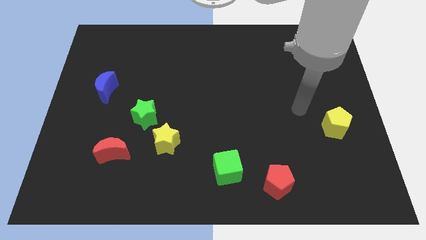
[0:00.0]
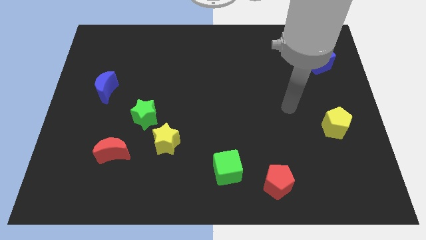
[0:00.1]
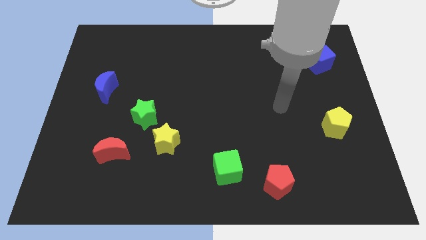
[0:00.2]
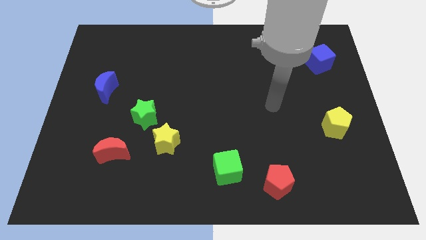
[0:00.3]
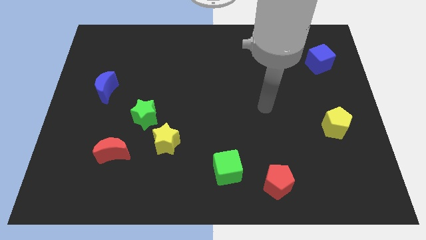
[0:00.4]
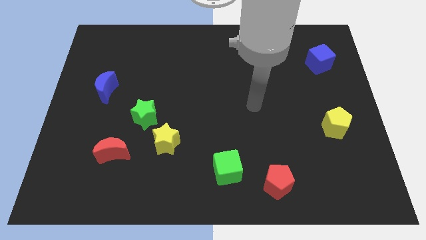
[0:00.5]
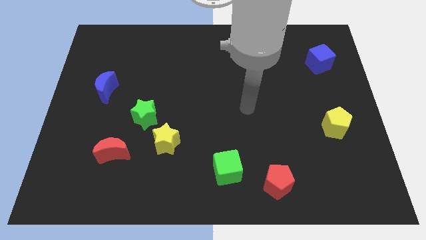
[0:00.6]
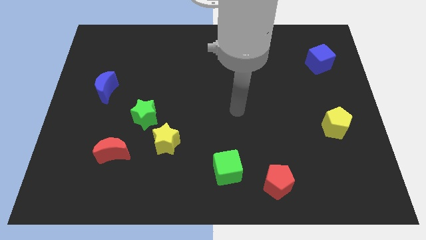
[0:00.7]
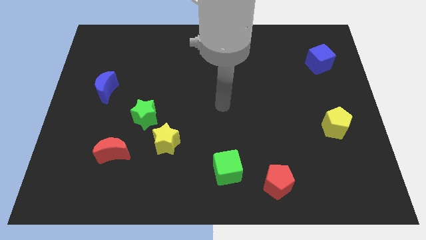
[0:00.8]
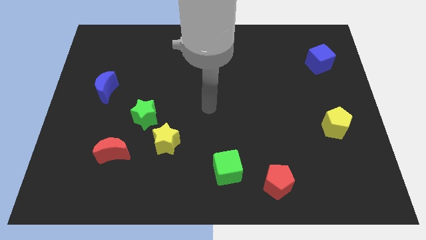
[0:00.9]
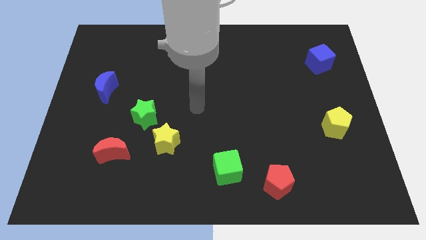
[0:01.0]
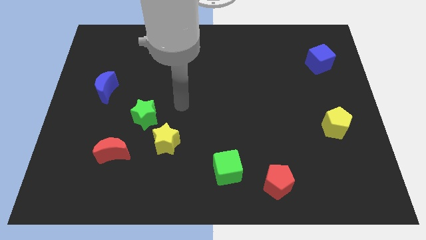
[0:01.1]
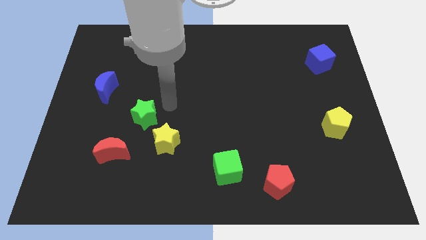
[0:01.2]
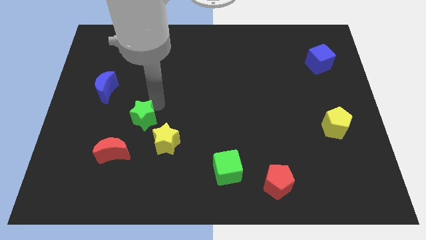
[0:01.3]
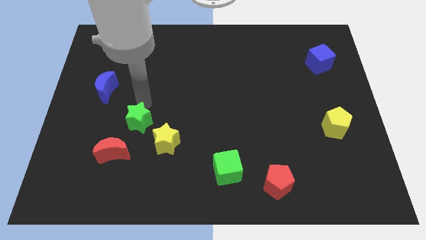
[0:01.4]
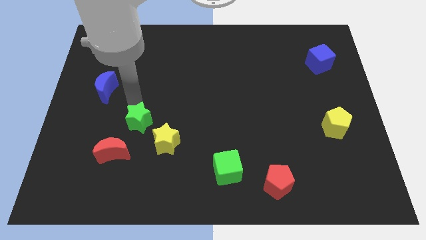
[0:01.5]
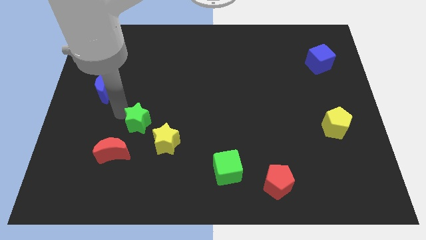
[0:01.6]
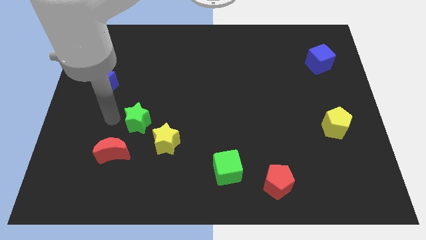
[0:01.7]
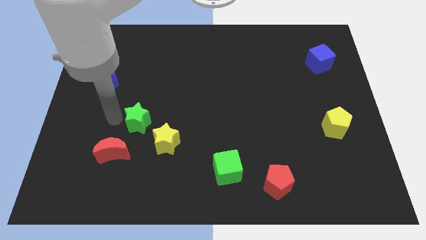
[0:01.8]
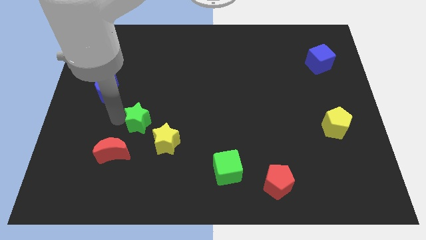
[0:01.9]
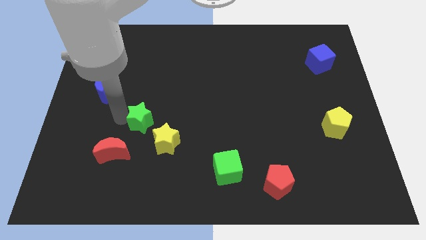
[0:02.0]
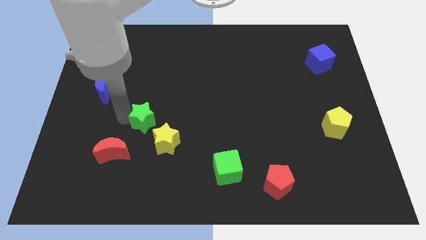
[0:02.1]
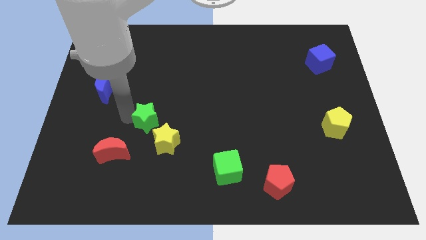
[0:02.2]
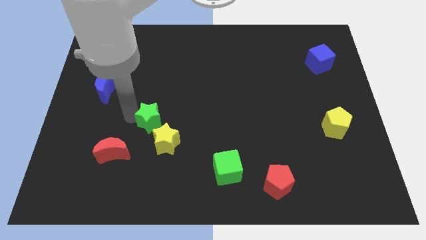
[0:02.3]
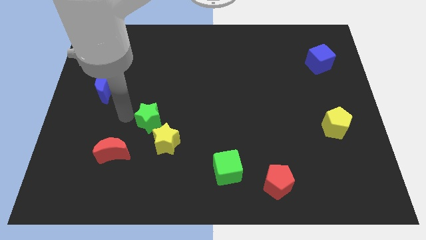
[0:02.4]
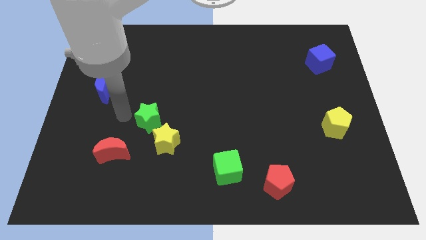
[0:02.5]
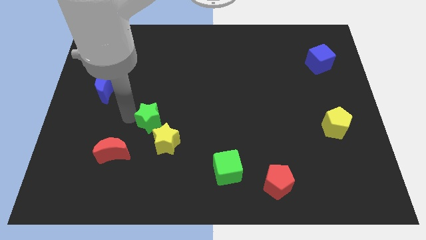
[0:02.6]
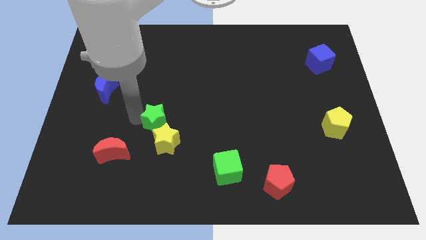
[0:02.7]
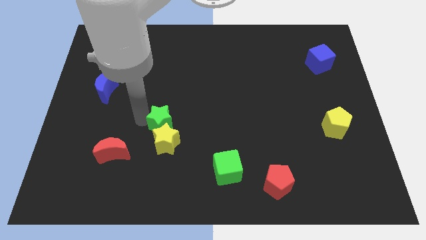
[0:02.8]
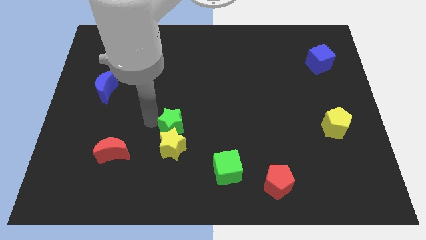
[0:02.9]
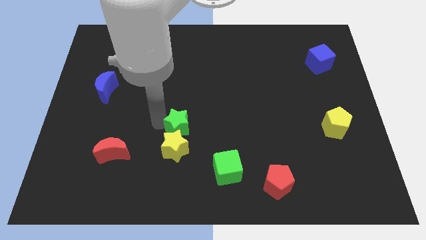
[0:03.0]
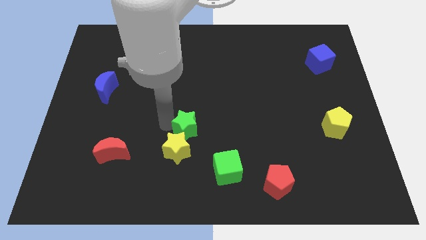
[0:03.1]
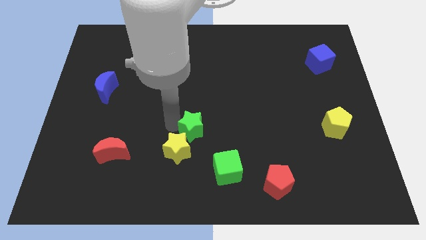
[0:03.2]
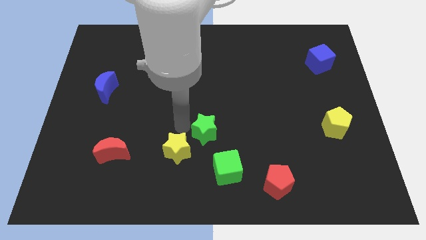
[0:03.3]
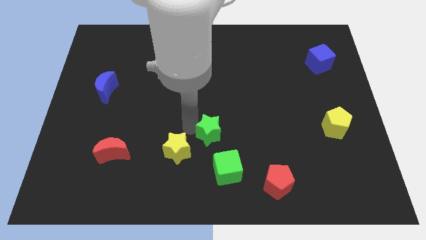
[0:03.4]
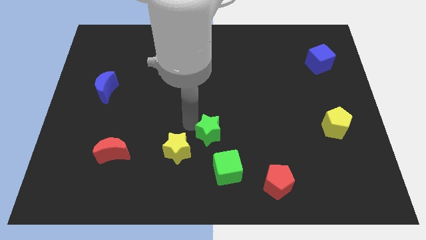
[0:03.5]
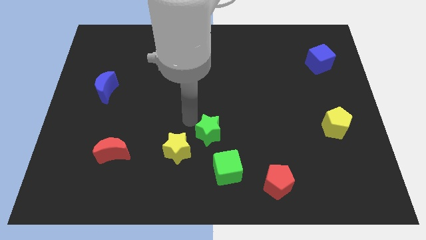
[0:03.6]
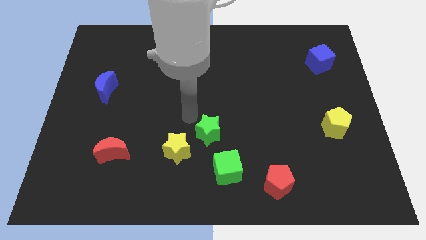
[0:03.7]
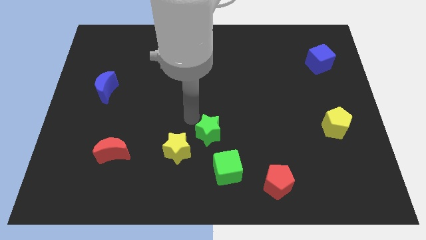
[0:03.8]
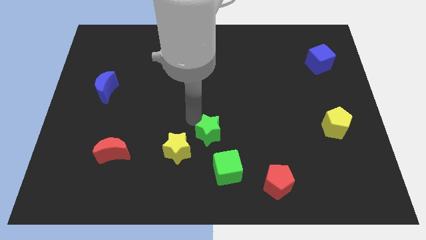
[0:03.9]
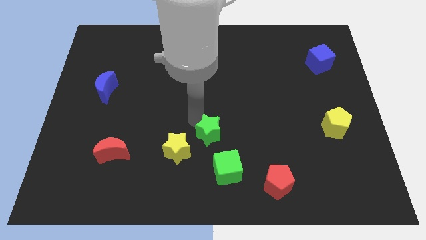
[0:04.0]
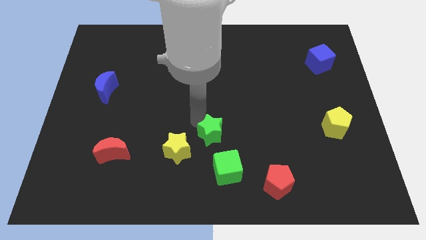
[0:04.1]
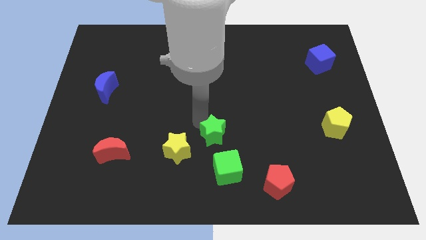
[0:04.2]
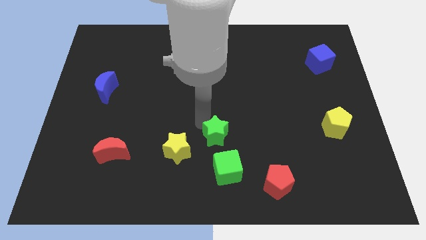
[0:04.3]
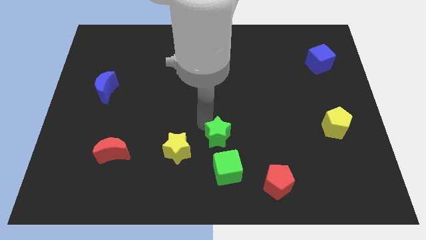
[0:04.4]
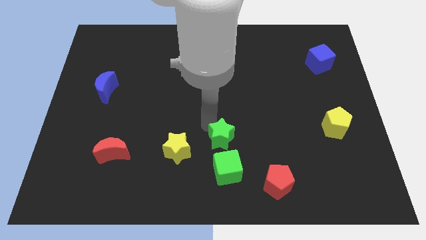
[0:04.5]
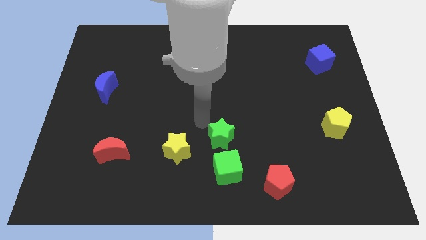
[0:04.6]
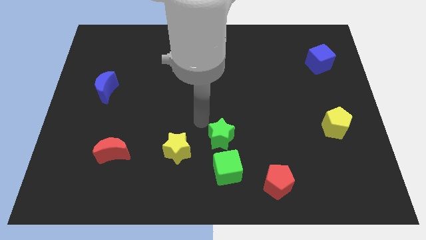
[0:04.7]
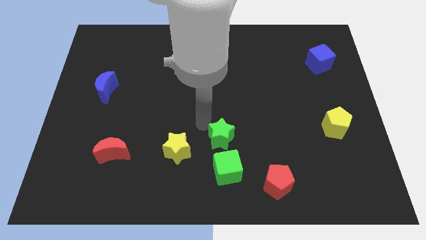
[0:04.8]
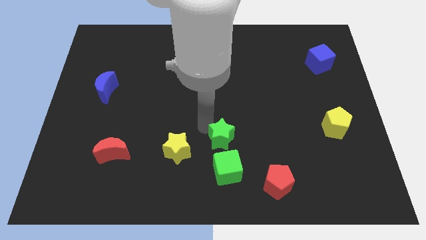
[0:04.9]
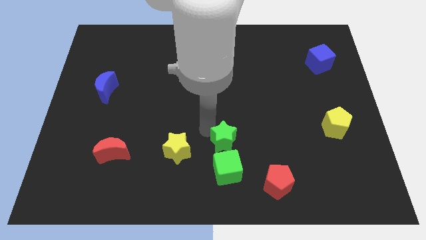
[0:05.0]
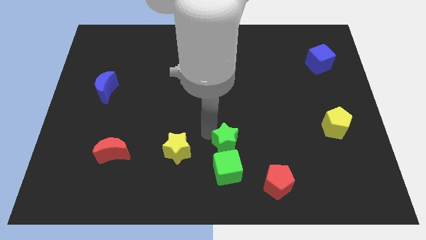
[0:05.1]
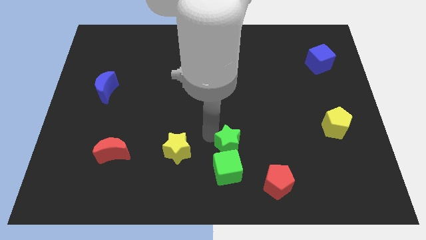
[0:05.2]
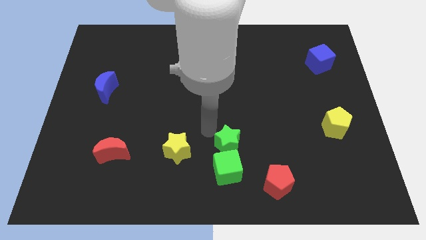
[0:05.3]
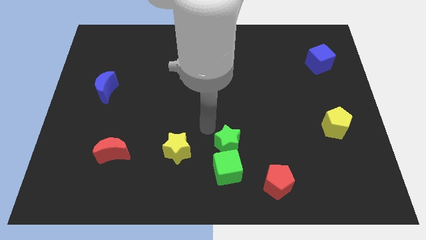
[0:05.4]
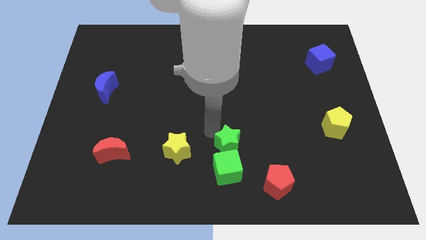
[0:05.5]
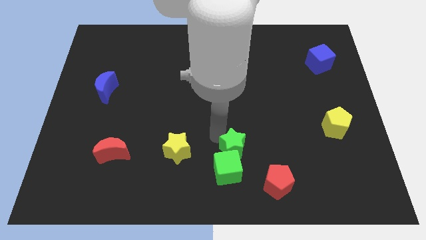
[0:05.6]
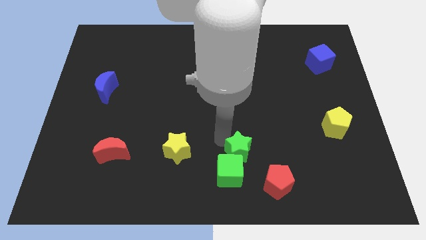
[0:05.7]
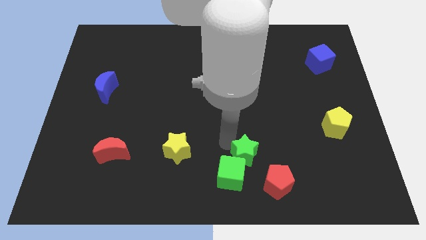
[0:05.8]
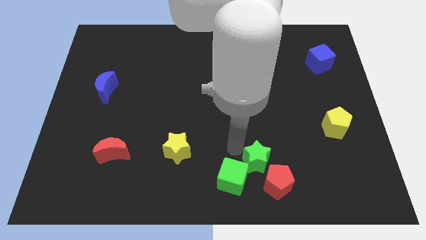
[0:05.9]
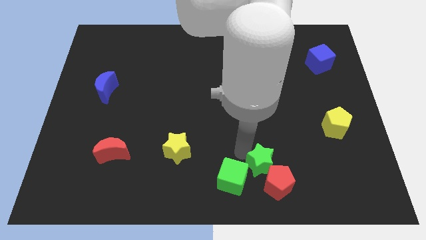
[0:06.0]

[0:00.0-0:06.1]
move the green star next to the red pentagon

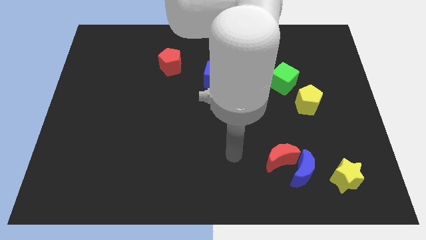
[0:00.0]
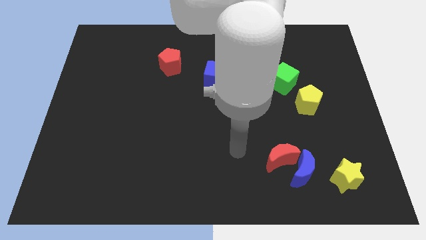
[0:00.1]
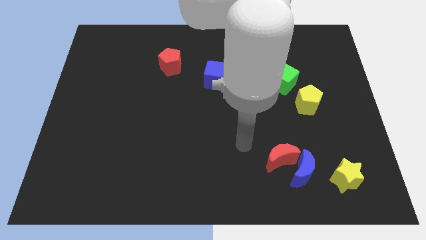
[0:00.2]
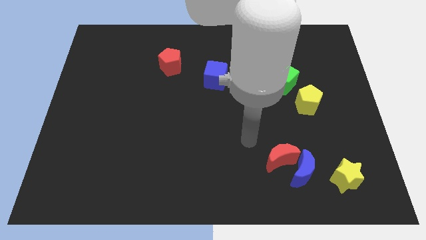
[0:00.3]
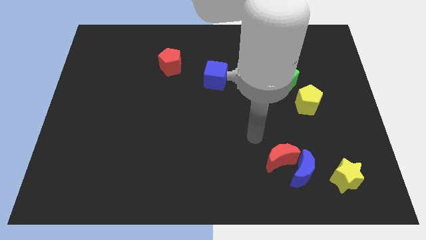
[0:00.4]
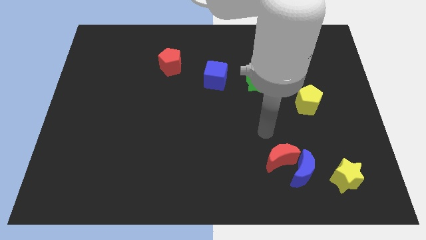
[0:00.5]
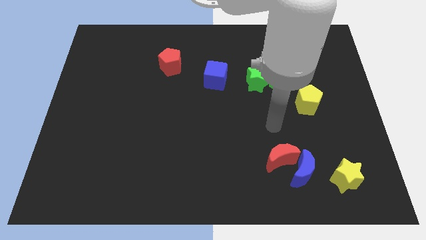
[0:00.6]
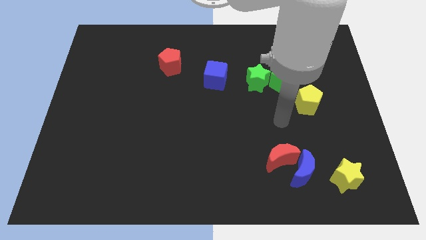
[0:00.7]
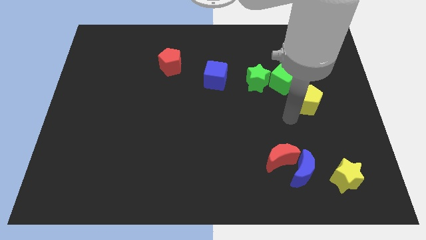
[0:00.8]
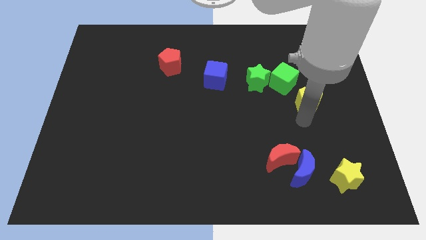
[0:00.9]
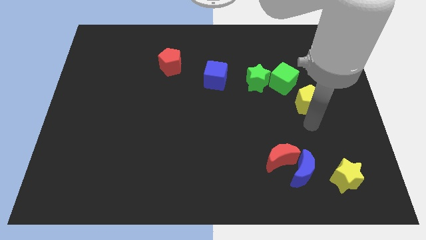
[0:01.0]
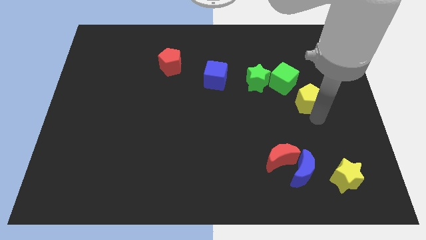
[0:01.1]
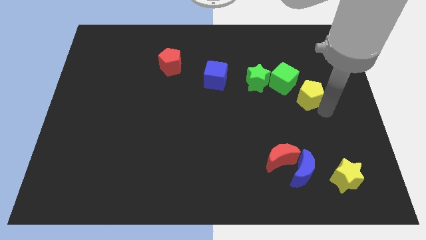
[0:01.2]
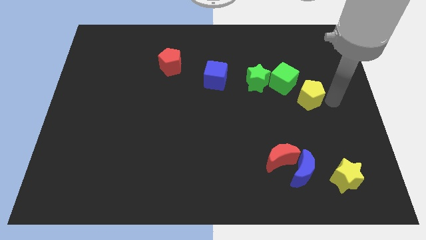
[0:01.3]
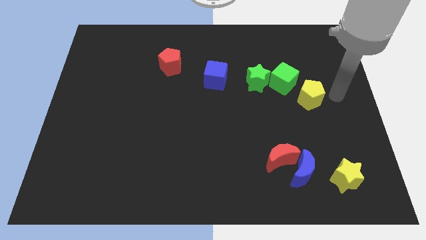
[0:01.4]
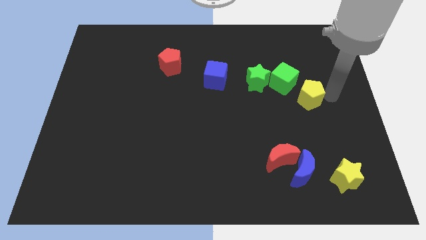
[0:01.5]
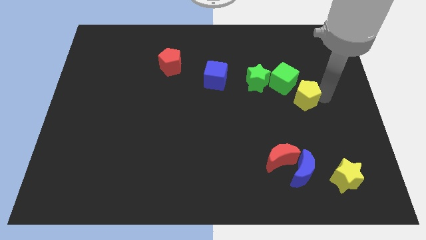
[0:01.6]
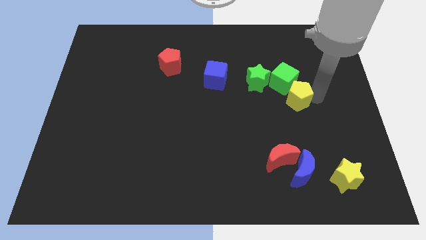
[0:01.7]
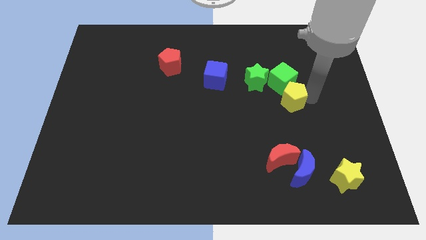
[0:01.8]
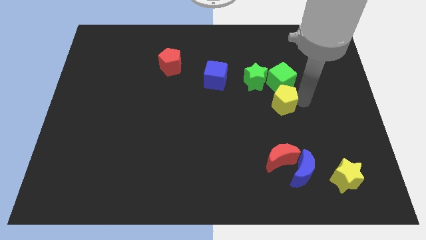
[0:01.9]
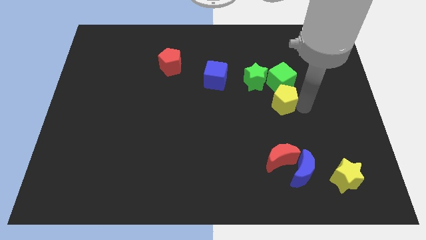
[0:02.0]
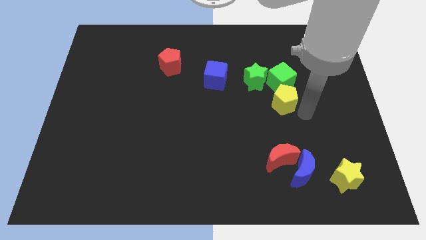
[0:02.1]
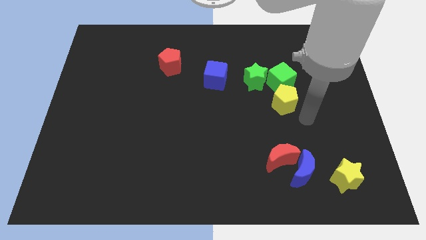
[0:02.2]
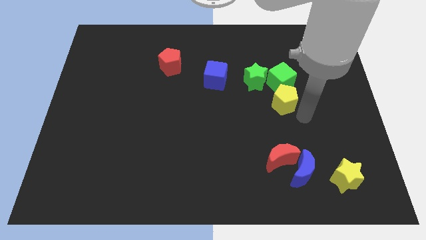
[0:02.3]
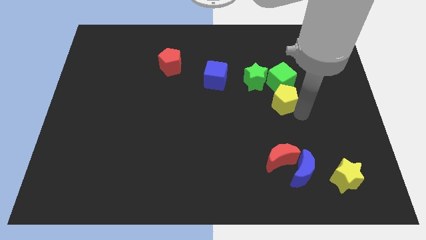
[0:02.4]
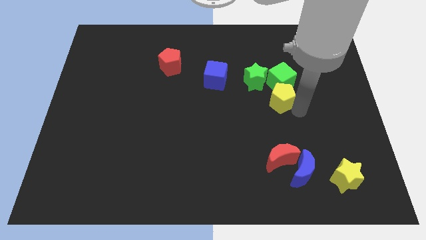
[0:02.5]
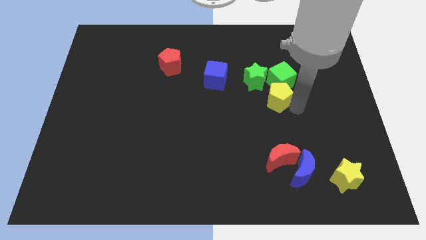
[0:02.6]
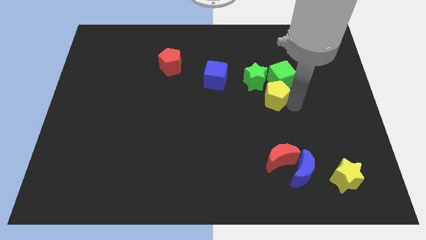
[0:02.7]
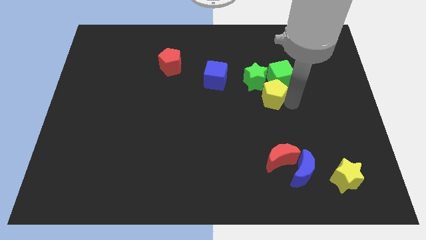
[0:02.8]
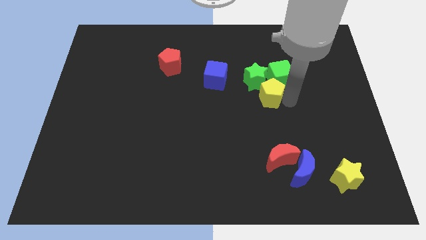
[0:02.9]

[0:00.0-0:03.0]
push the yellow pentagon close to the green star
